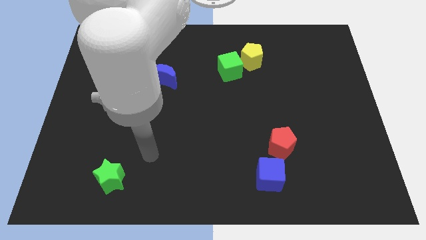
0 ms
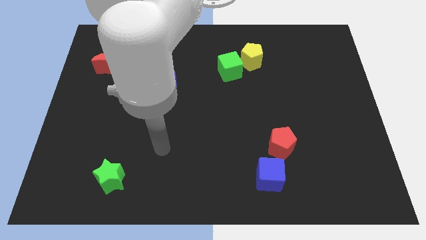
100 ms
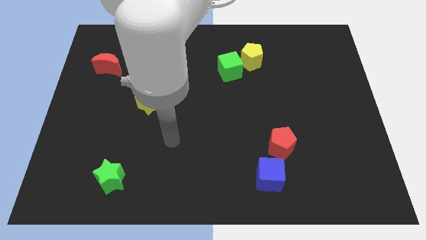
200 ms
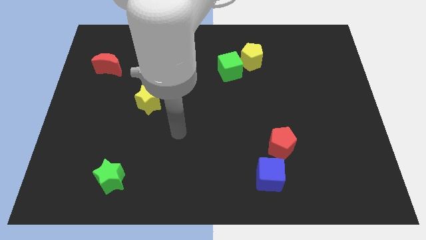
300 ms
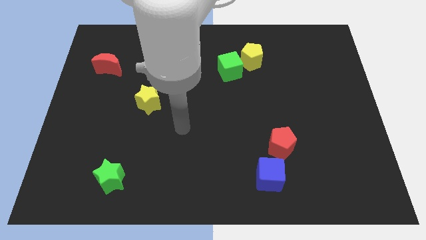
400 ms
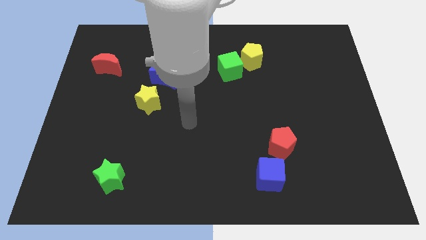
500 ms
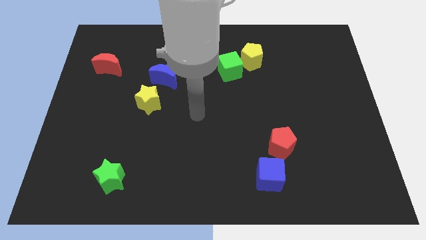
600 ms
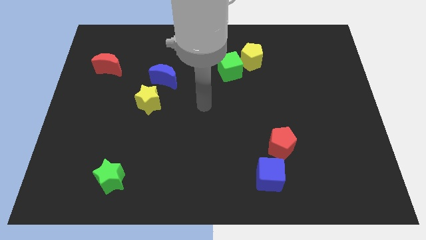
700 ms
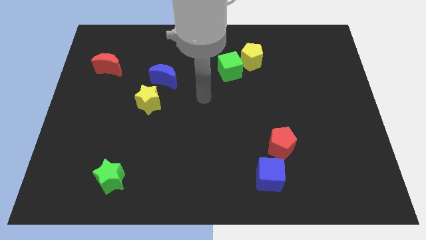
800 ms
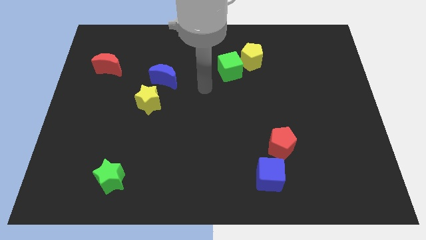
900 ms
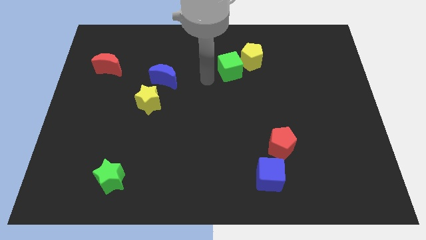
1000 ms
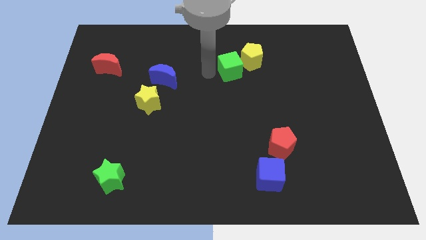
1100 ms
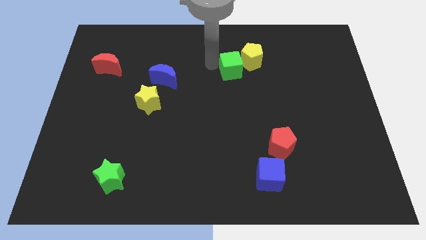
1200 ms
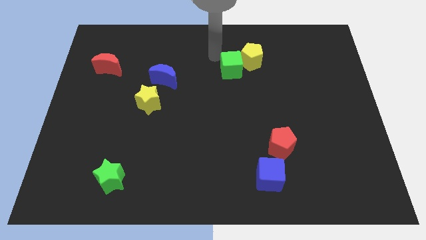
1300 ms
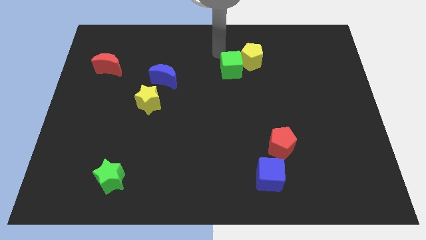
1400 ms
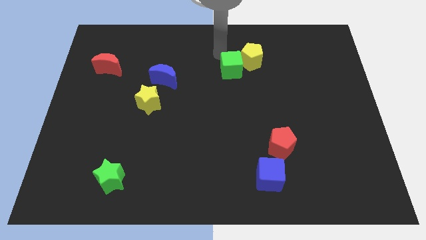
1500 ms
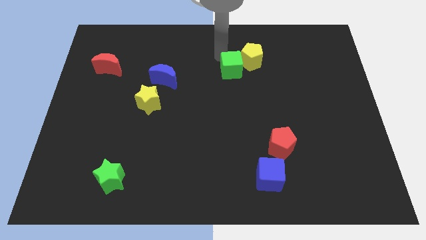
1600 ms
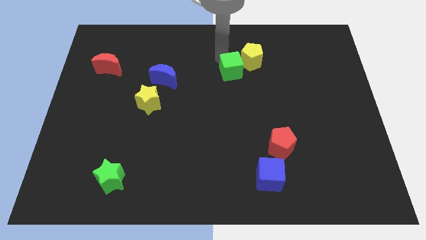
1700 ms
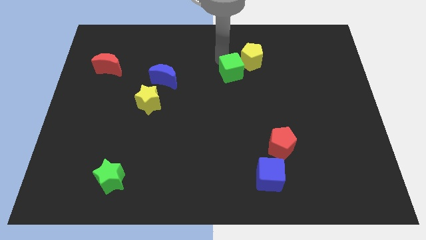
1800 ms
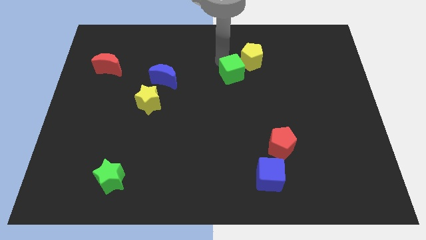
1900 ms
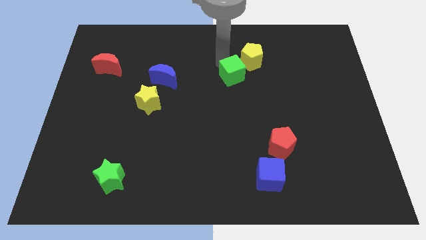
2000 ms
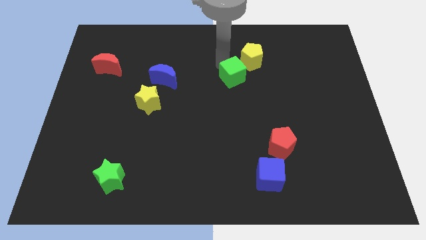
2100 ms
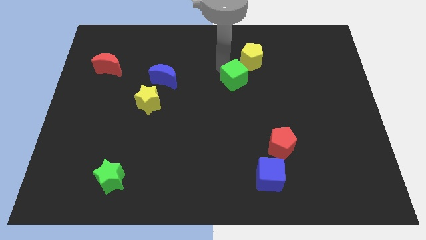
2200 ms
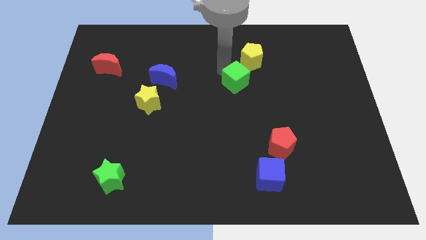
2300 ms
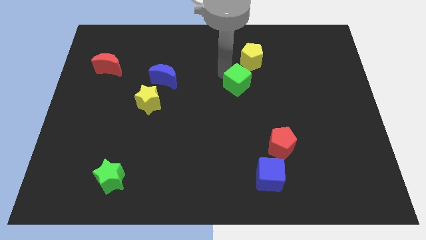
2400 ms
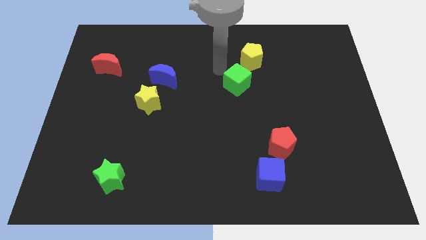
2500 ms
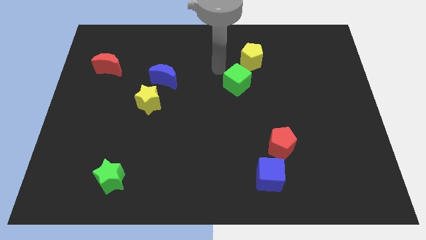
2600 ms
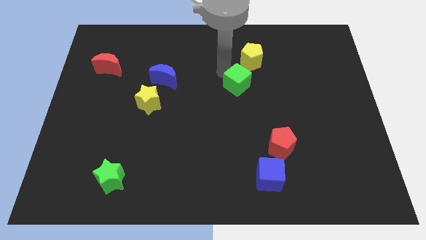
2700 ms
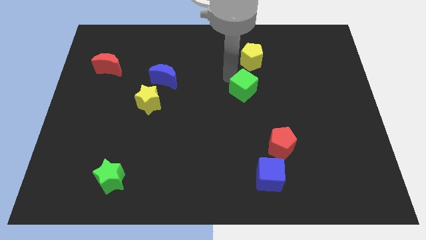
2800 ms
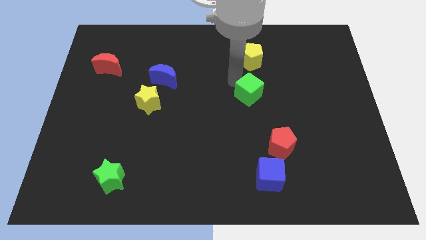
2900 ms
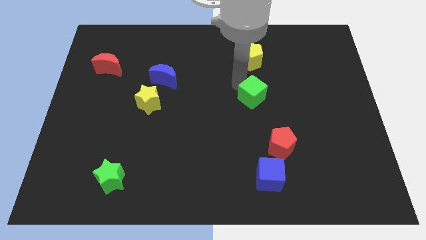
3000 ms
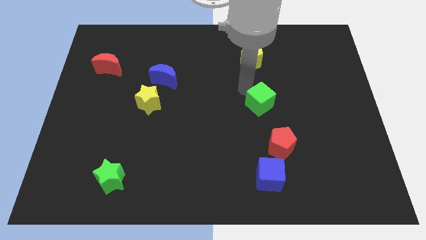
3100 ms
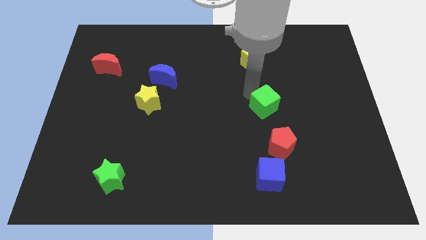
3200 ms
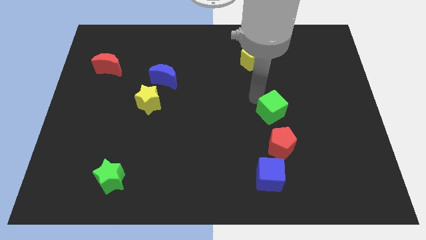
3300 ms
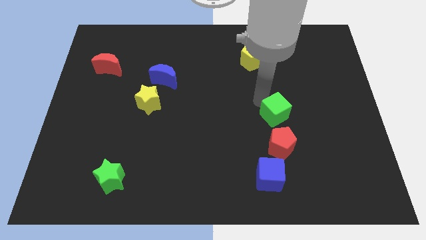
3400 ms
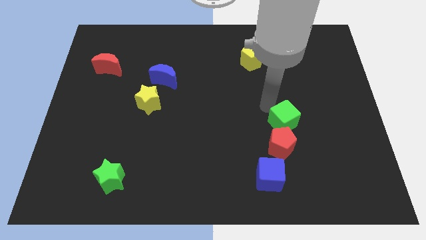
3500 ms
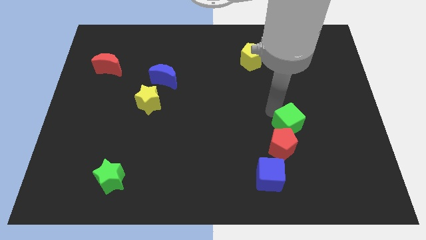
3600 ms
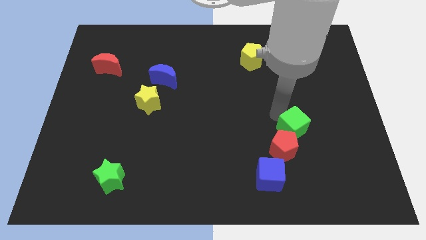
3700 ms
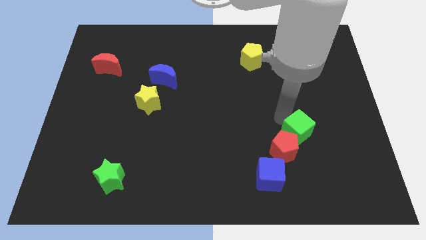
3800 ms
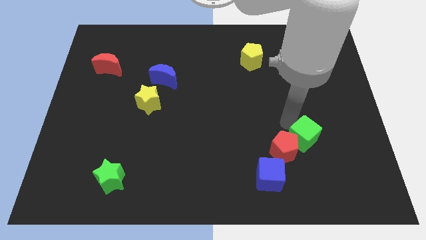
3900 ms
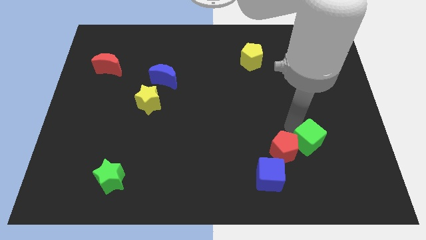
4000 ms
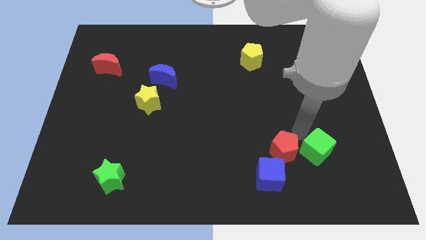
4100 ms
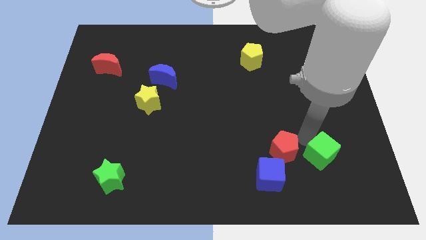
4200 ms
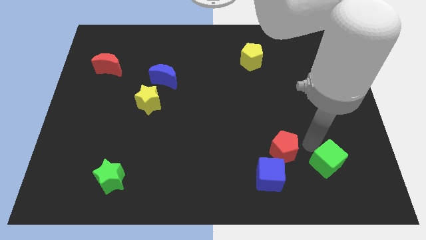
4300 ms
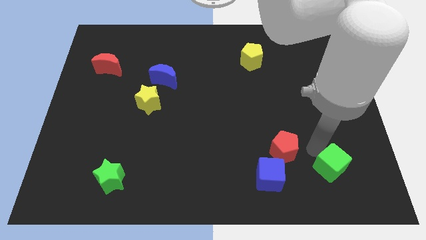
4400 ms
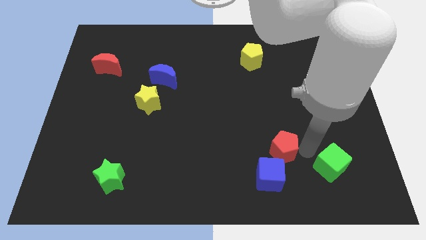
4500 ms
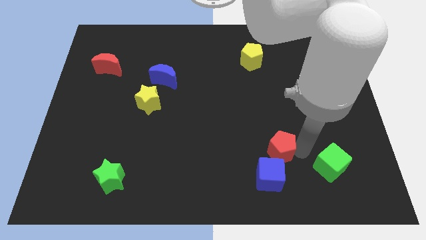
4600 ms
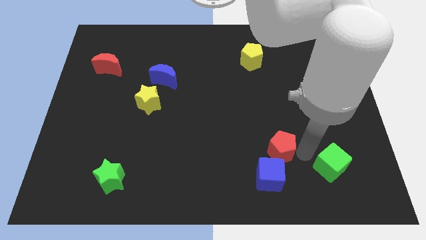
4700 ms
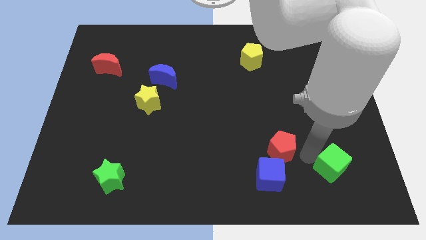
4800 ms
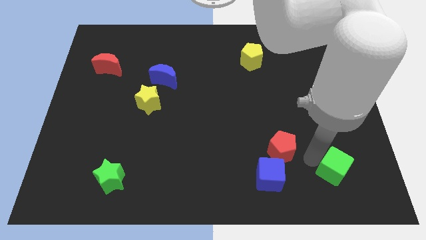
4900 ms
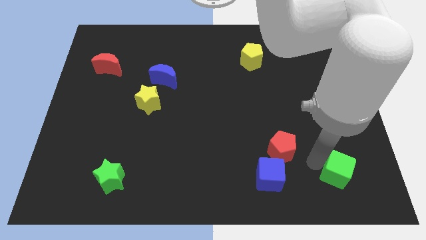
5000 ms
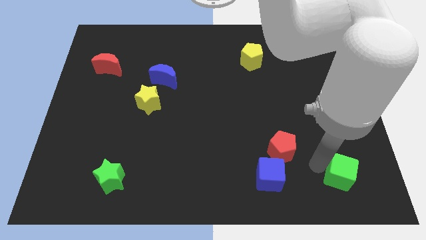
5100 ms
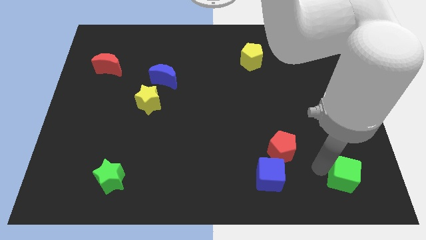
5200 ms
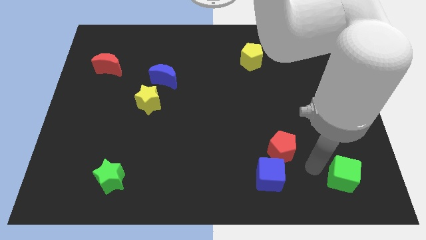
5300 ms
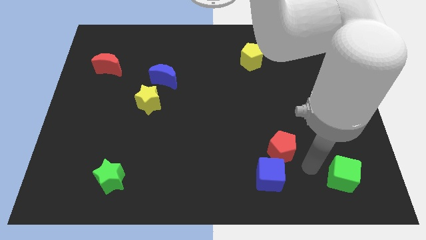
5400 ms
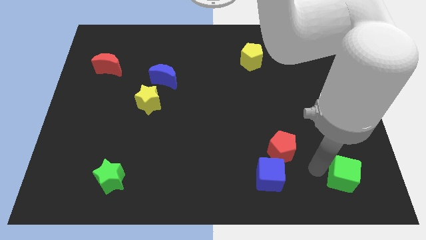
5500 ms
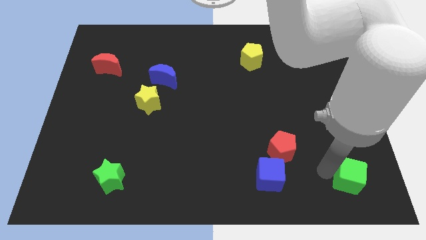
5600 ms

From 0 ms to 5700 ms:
put the green cube to the lower right corner
